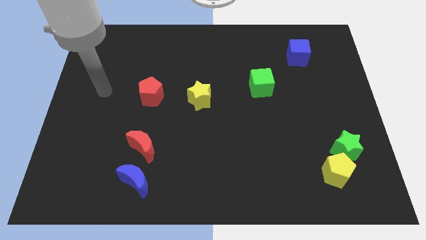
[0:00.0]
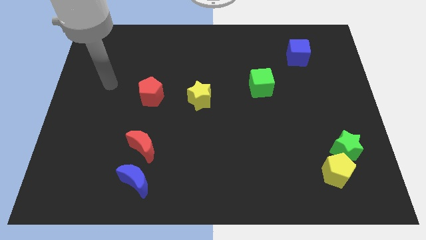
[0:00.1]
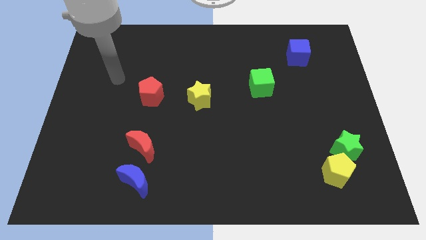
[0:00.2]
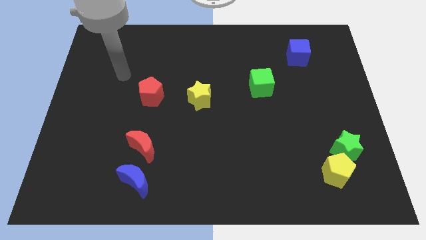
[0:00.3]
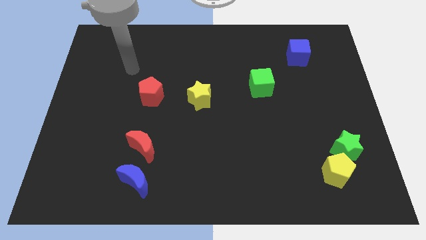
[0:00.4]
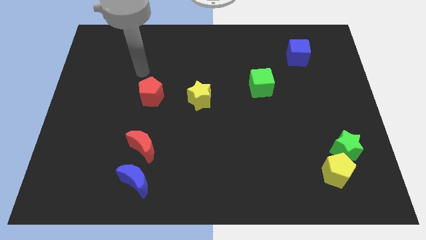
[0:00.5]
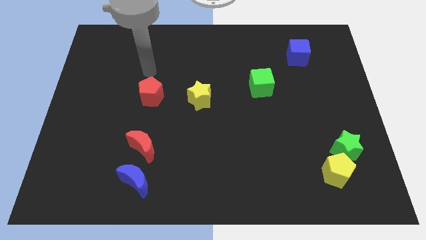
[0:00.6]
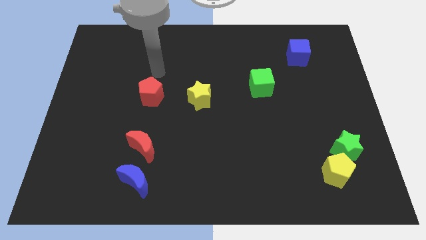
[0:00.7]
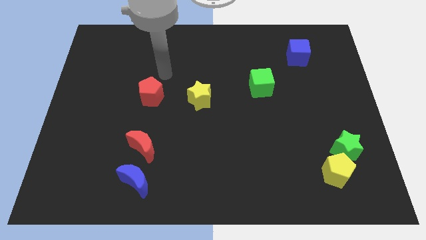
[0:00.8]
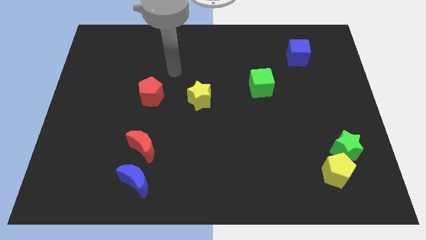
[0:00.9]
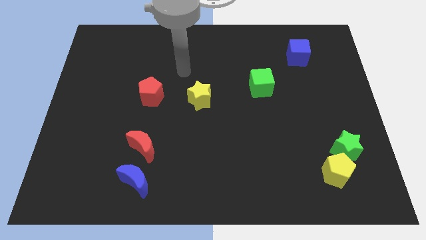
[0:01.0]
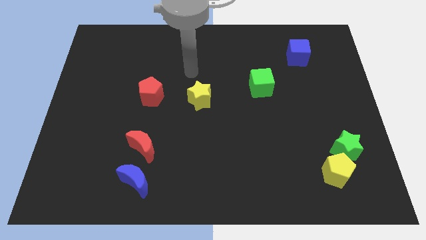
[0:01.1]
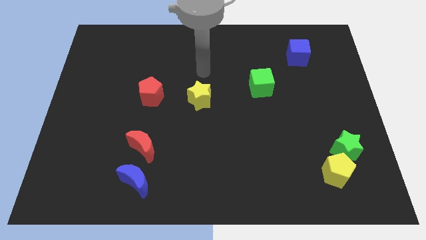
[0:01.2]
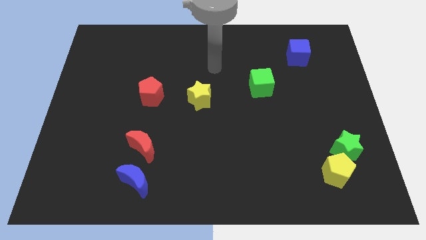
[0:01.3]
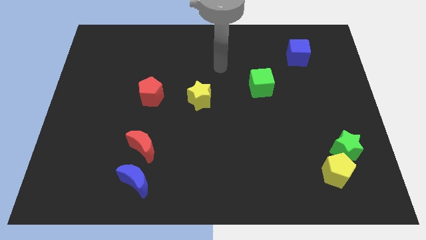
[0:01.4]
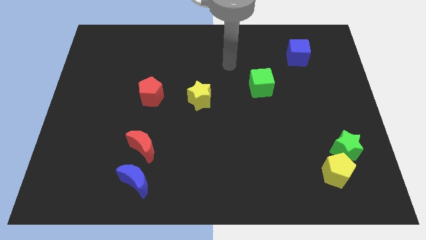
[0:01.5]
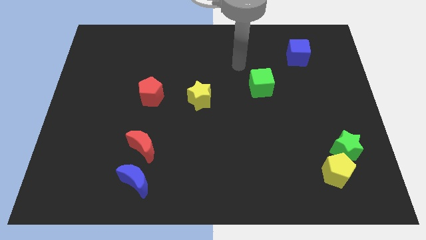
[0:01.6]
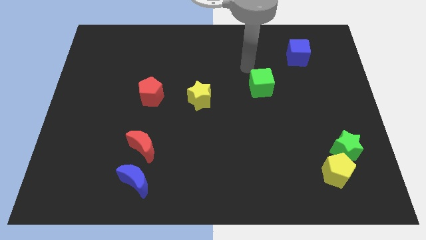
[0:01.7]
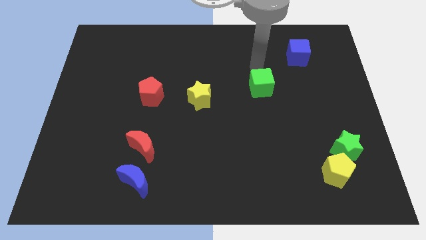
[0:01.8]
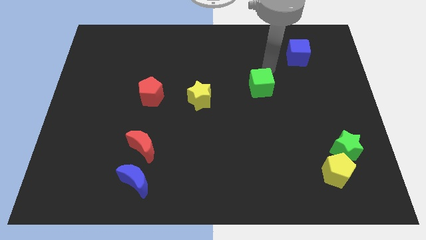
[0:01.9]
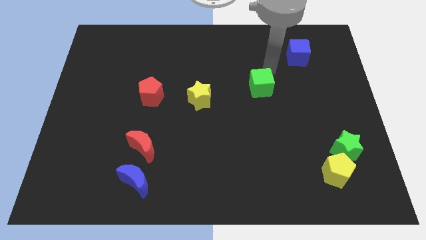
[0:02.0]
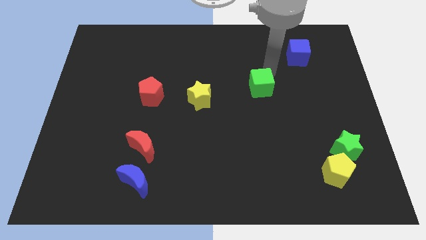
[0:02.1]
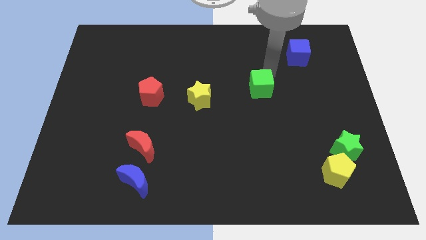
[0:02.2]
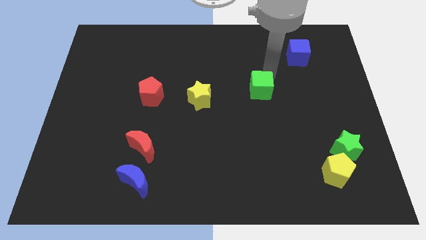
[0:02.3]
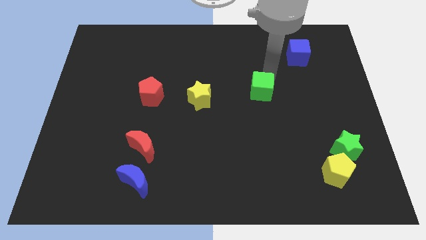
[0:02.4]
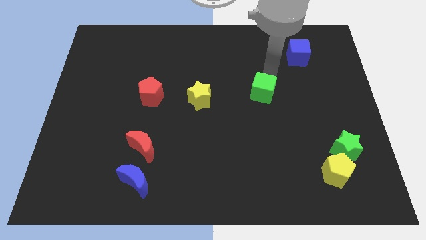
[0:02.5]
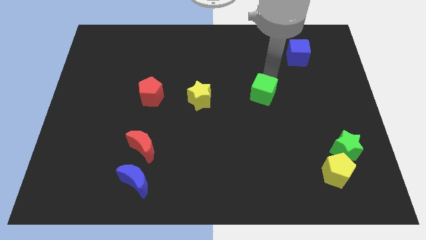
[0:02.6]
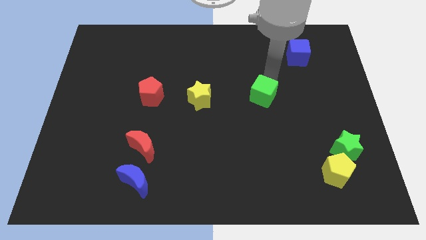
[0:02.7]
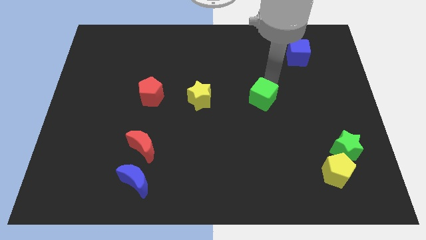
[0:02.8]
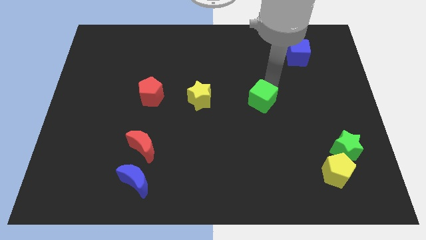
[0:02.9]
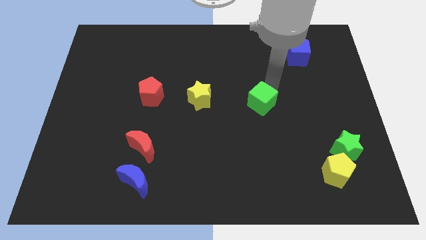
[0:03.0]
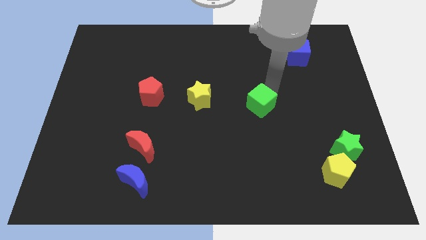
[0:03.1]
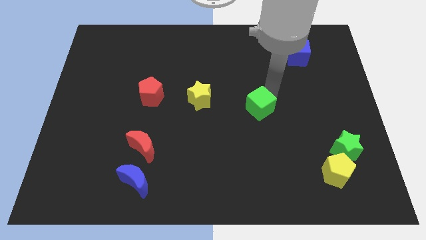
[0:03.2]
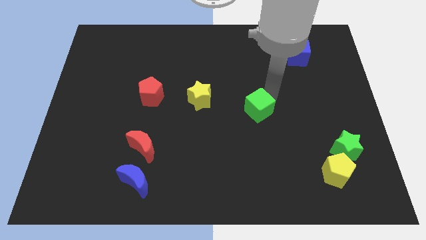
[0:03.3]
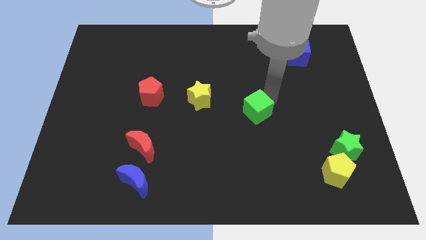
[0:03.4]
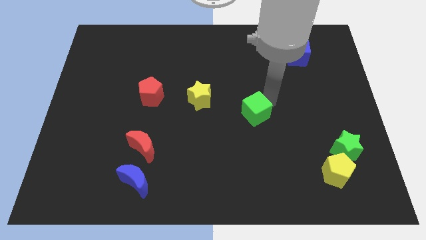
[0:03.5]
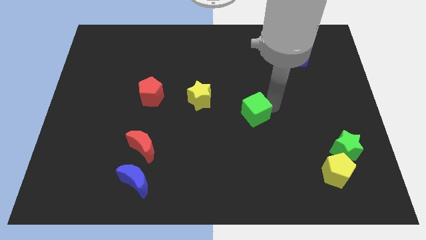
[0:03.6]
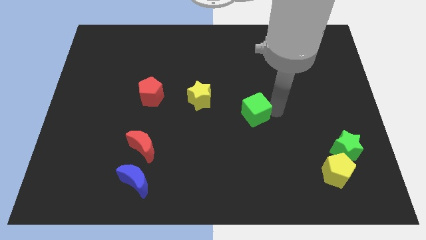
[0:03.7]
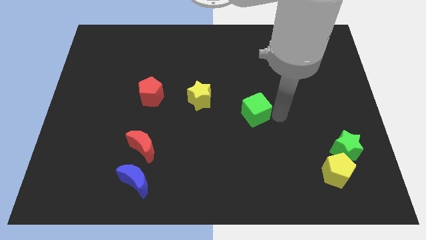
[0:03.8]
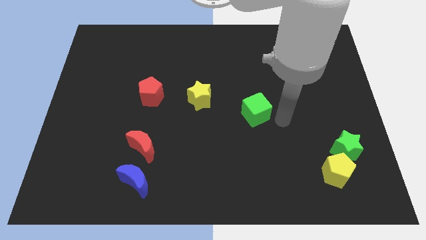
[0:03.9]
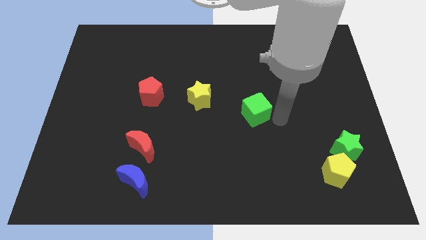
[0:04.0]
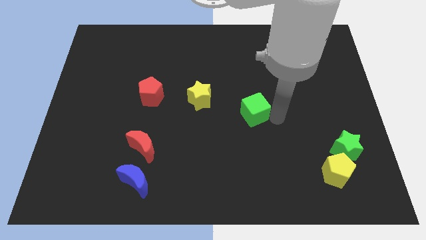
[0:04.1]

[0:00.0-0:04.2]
slightly slide the green cube down and then left

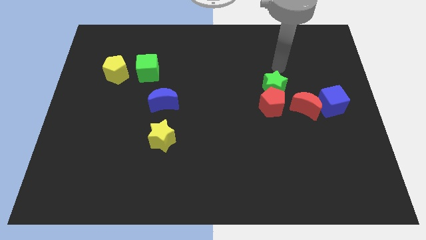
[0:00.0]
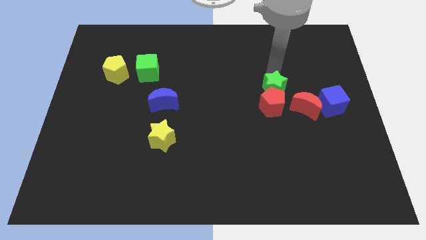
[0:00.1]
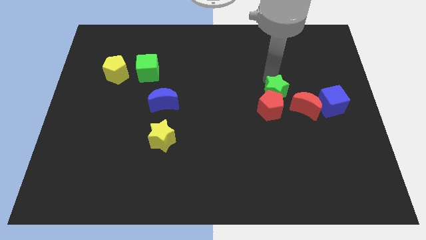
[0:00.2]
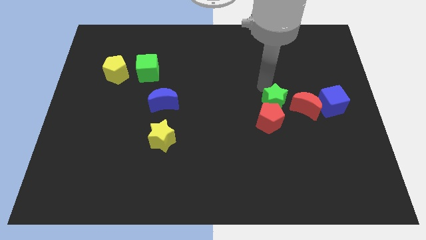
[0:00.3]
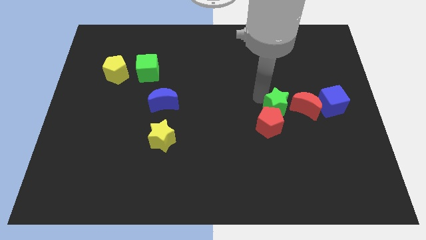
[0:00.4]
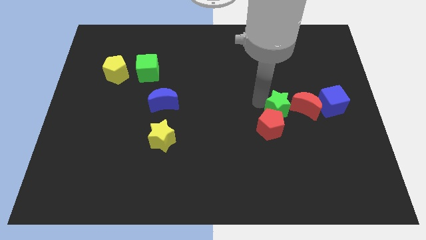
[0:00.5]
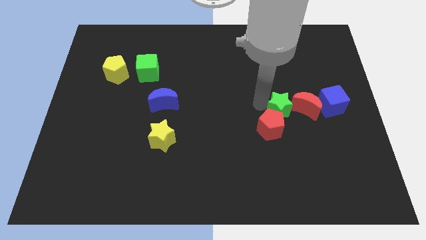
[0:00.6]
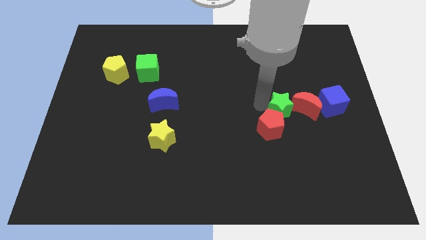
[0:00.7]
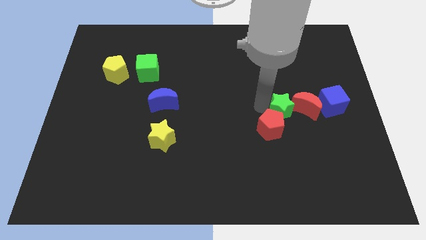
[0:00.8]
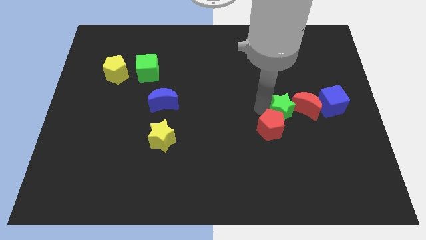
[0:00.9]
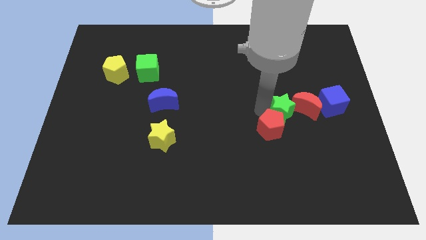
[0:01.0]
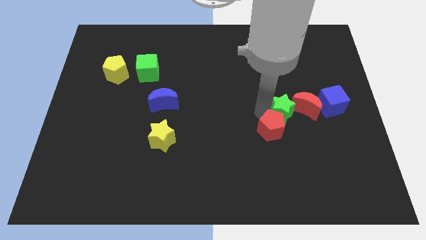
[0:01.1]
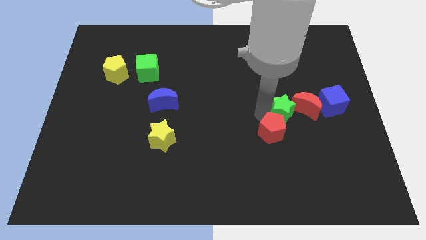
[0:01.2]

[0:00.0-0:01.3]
slide the red pentagon a bit downwards

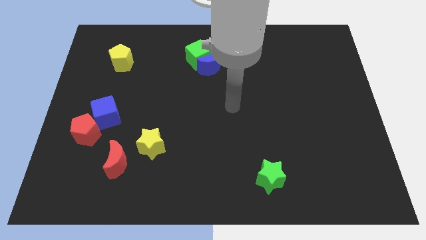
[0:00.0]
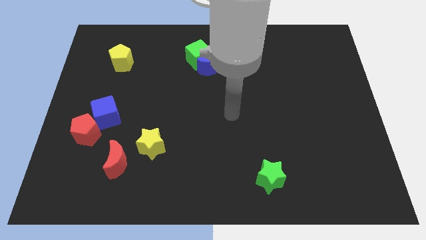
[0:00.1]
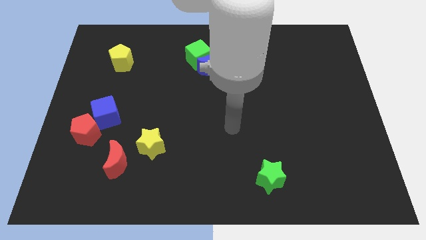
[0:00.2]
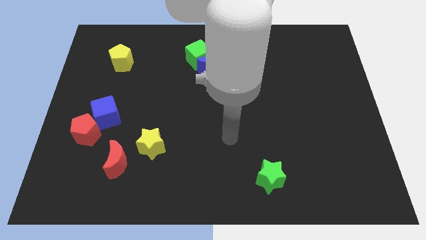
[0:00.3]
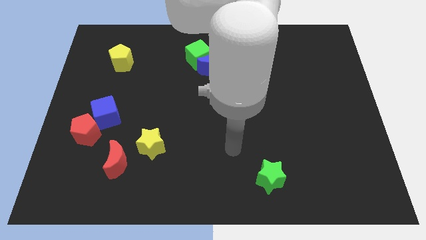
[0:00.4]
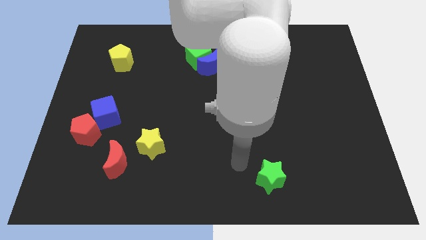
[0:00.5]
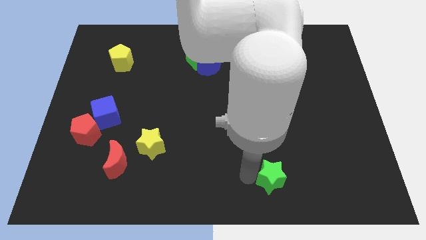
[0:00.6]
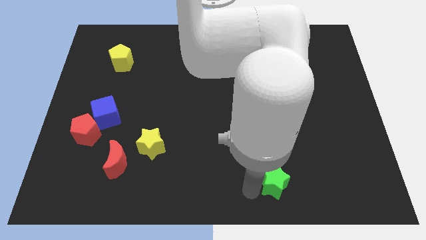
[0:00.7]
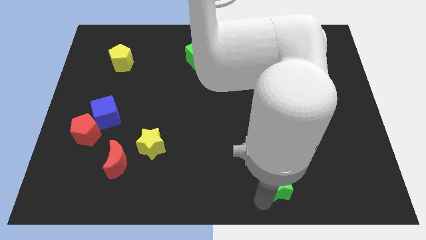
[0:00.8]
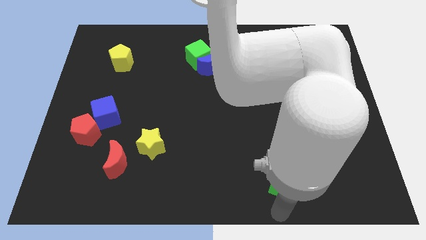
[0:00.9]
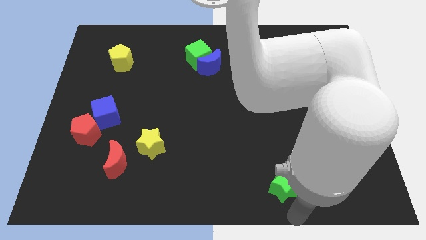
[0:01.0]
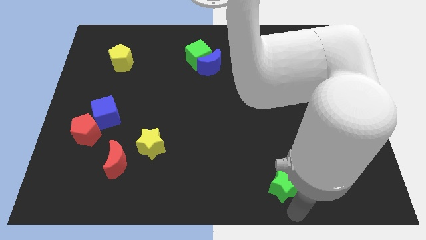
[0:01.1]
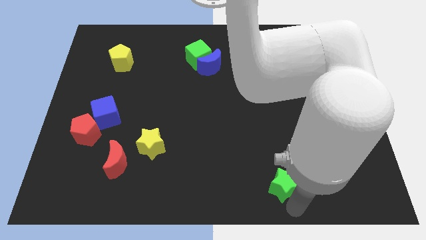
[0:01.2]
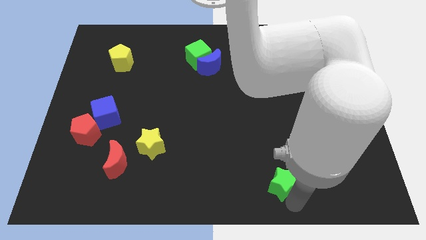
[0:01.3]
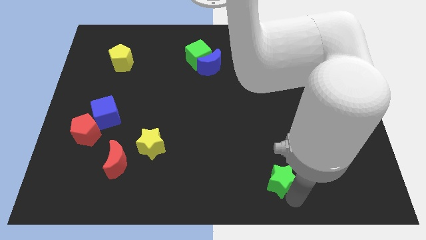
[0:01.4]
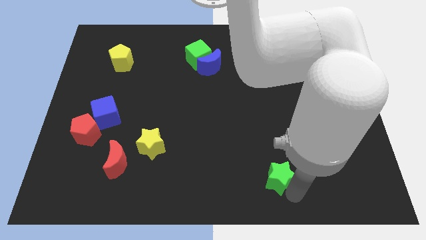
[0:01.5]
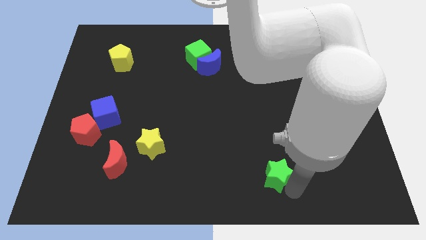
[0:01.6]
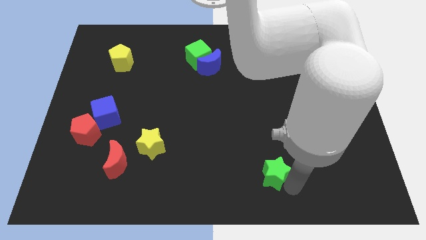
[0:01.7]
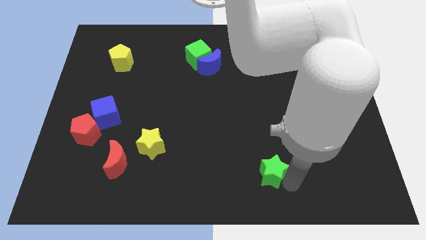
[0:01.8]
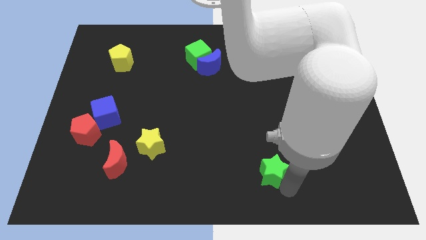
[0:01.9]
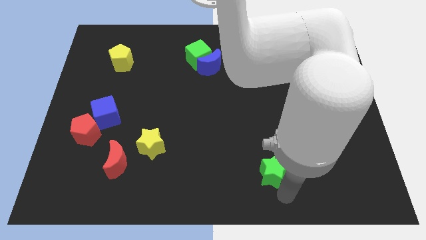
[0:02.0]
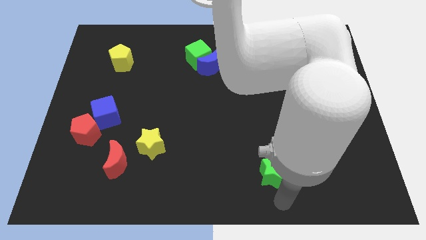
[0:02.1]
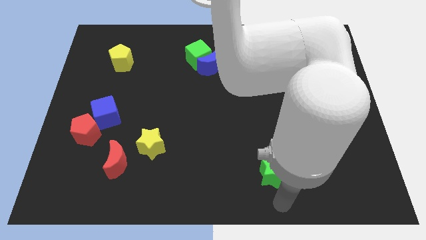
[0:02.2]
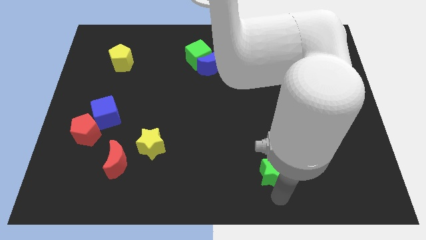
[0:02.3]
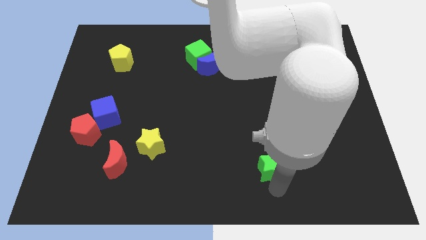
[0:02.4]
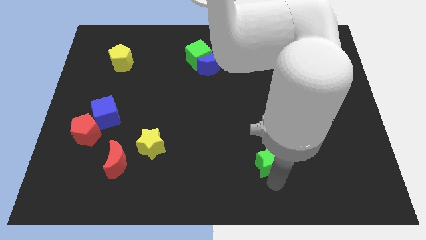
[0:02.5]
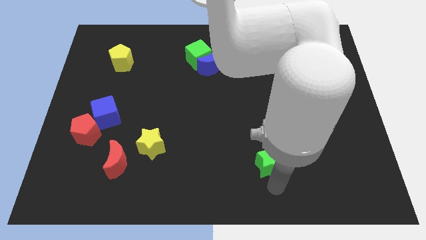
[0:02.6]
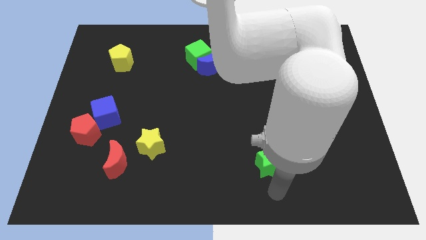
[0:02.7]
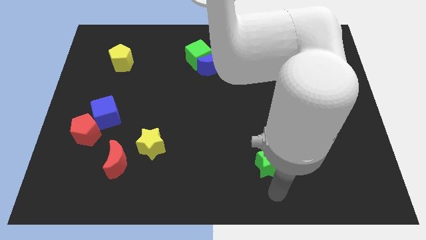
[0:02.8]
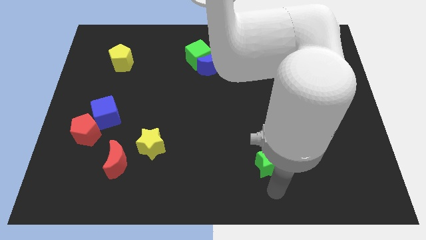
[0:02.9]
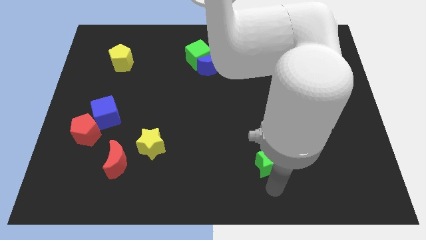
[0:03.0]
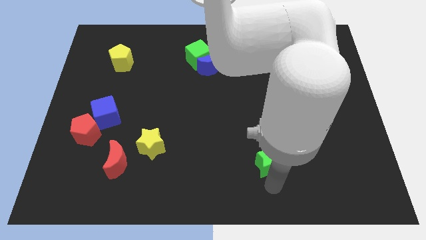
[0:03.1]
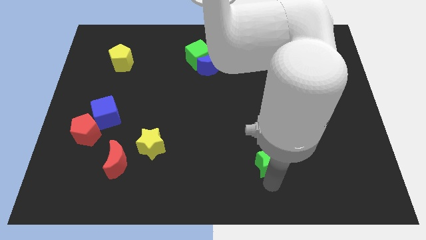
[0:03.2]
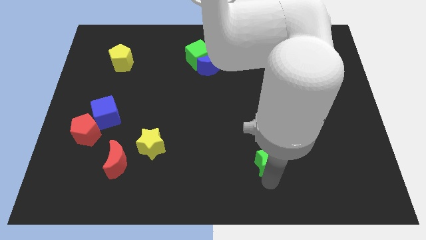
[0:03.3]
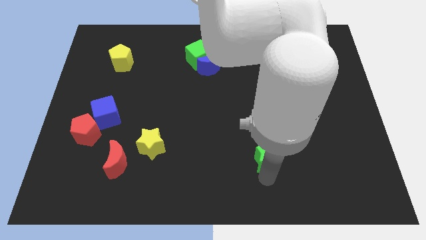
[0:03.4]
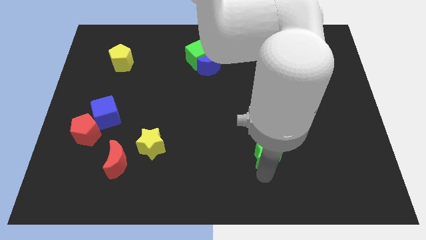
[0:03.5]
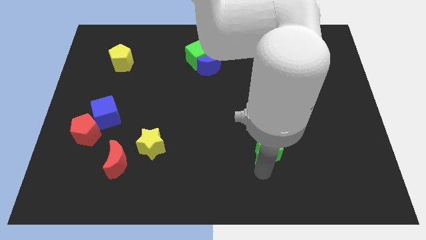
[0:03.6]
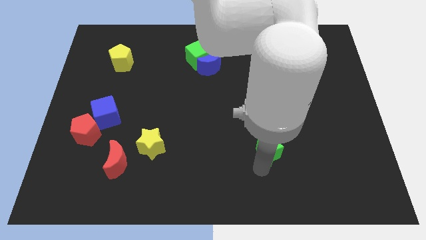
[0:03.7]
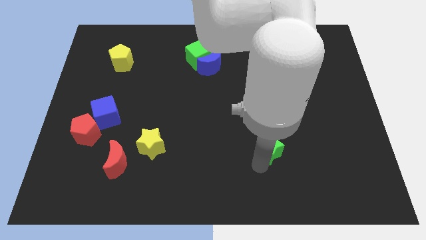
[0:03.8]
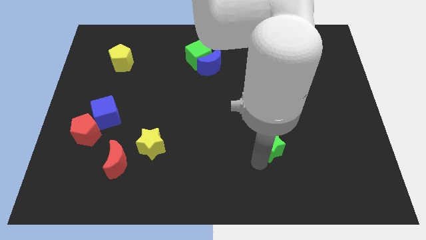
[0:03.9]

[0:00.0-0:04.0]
slightly slide the green star upwards
